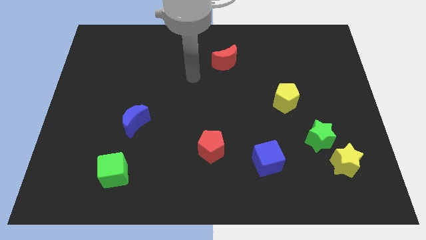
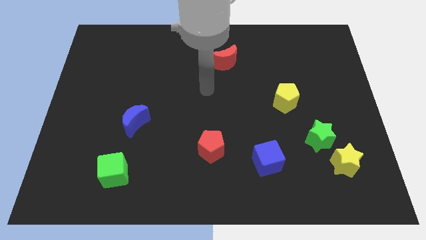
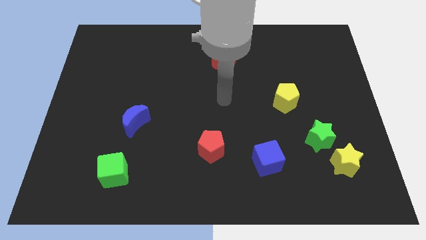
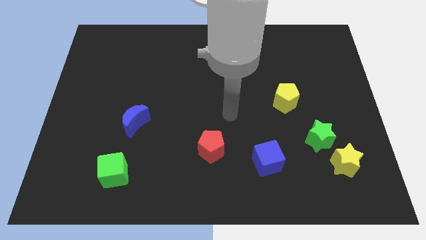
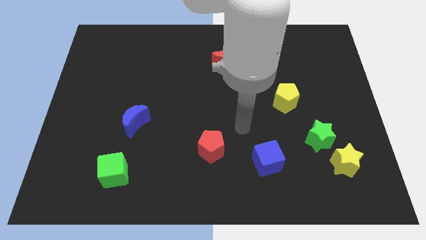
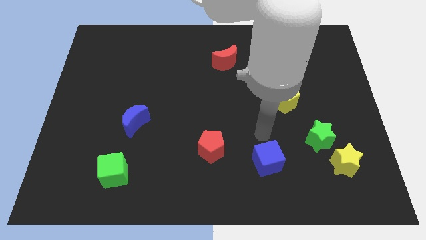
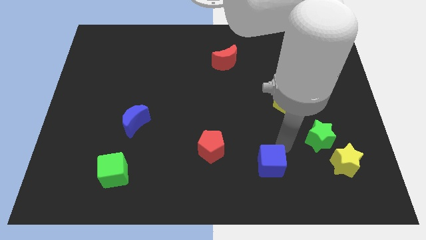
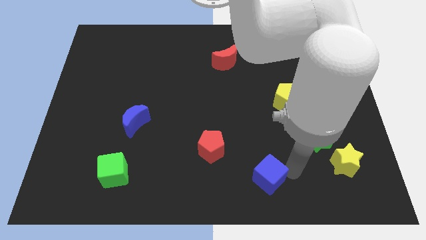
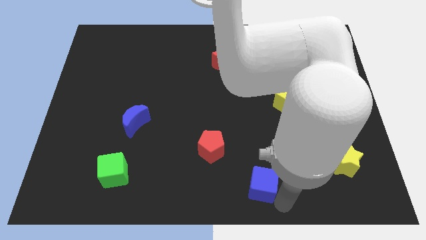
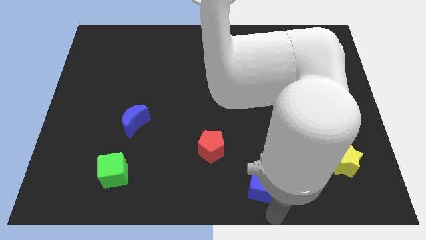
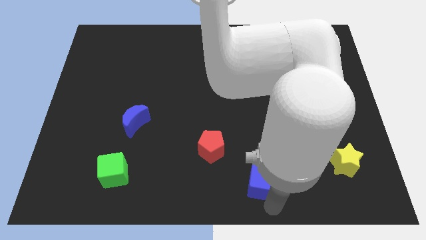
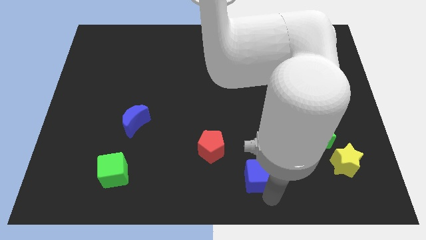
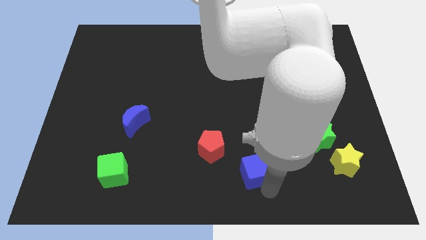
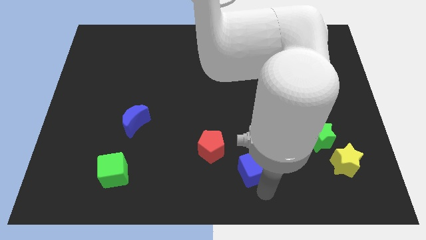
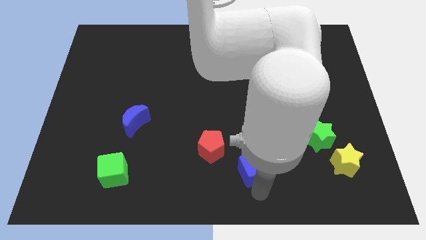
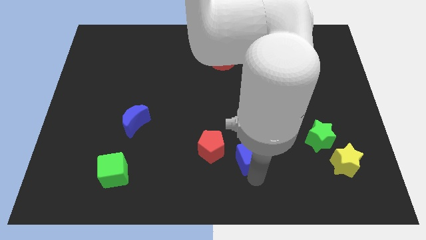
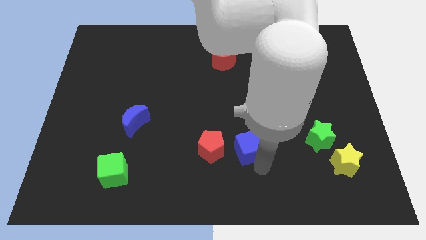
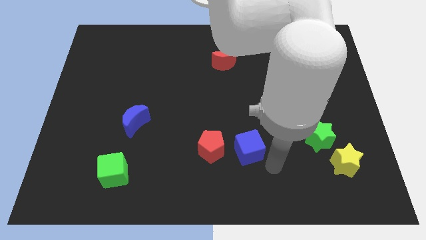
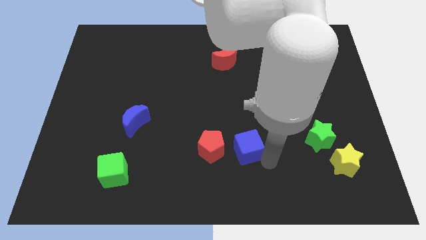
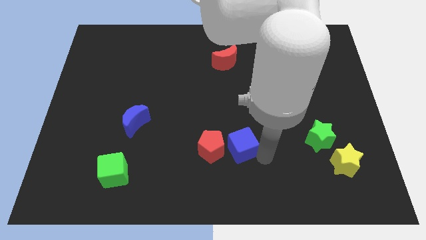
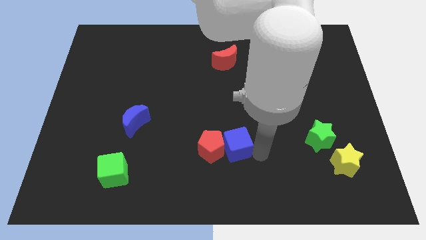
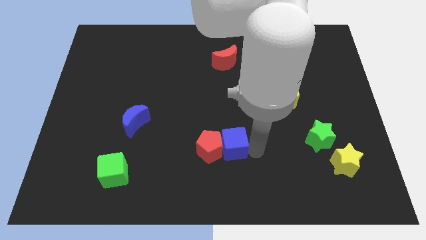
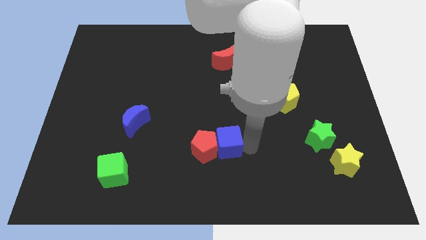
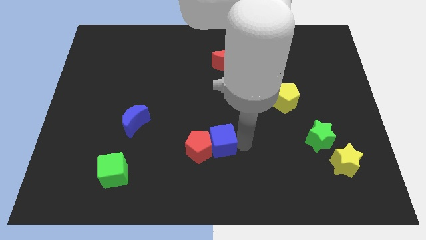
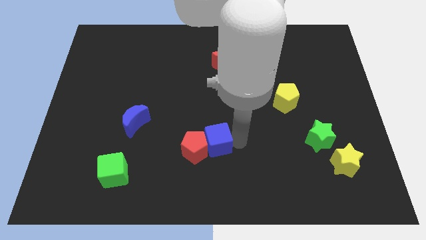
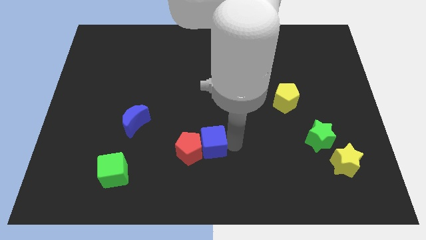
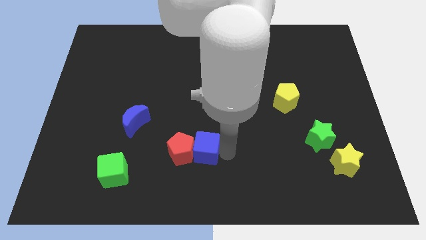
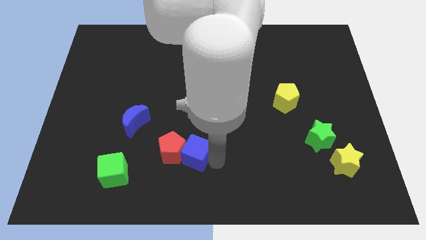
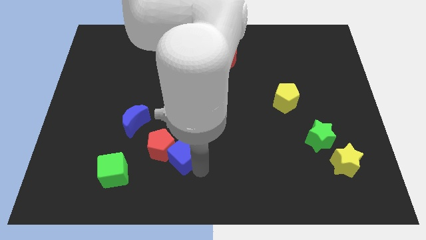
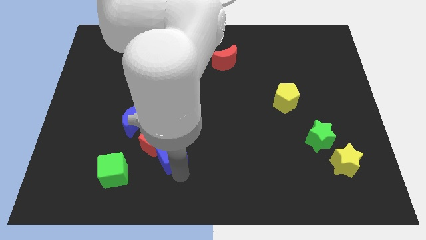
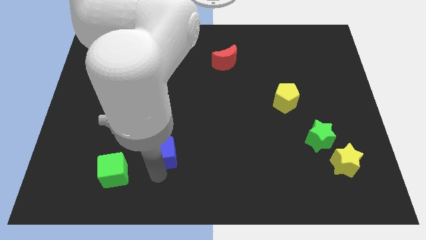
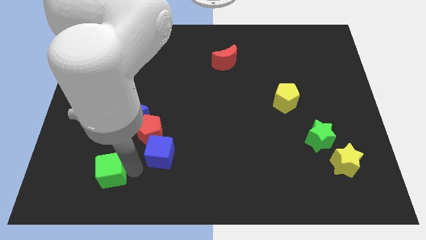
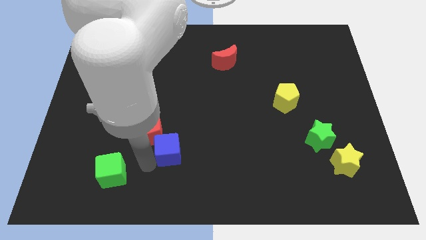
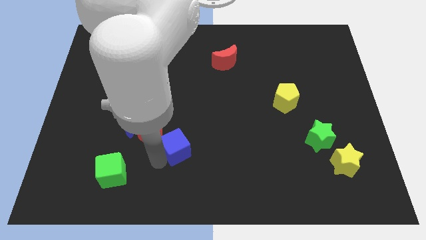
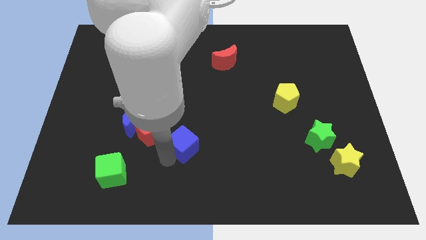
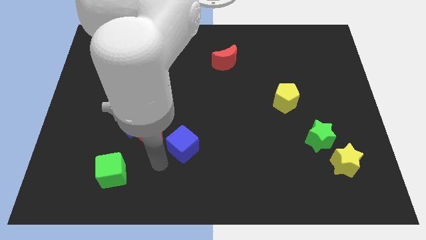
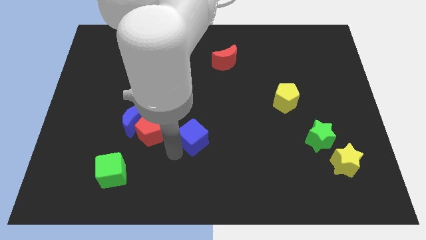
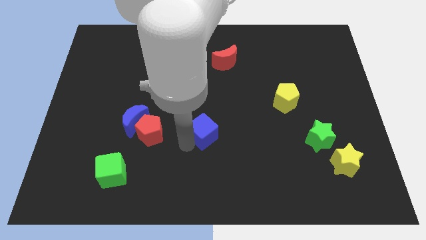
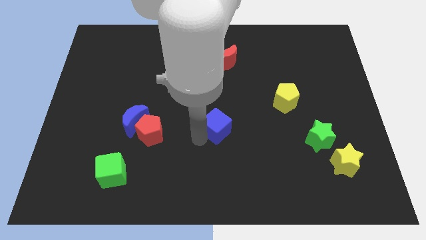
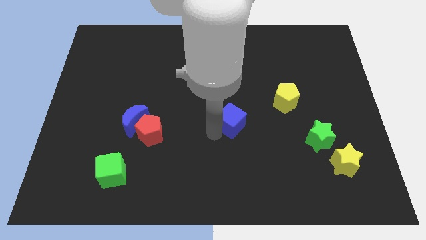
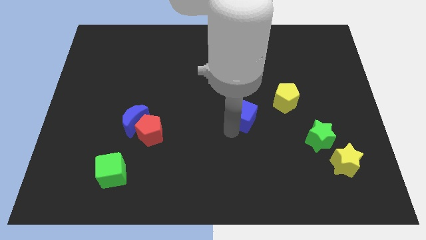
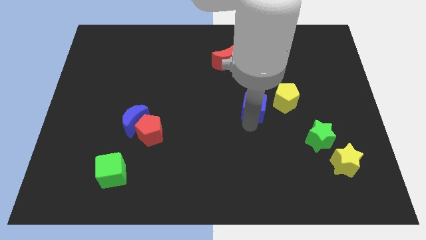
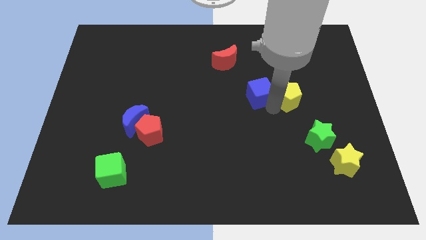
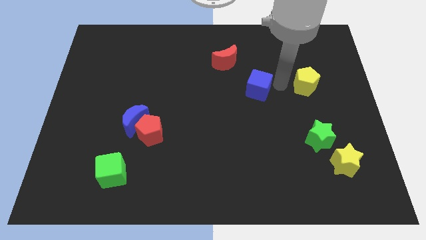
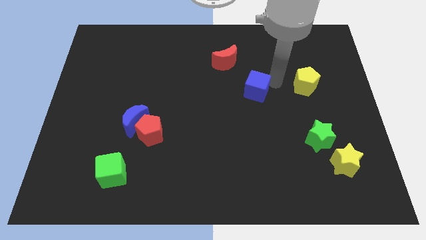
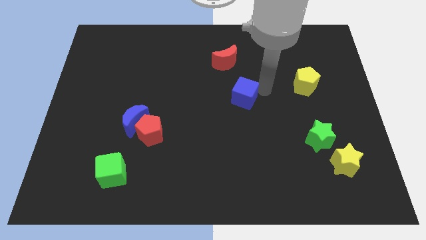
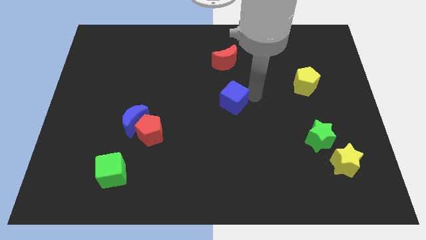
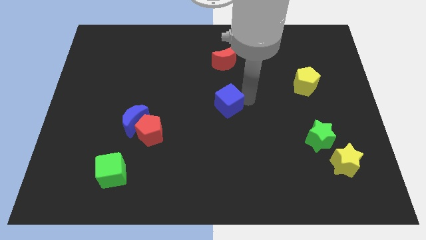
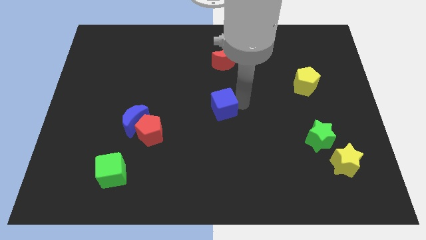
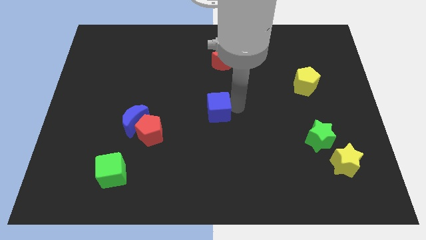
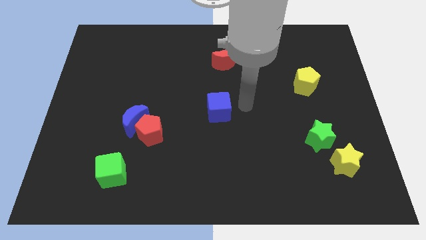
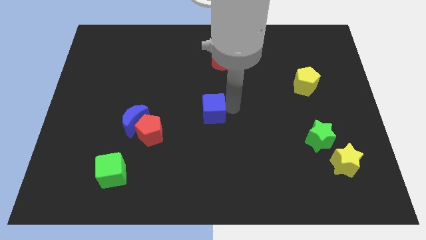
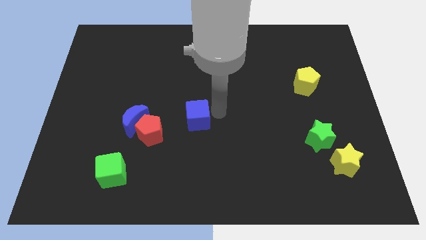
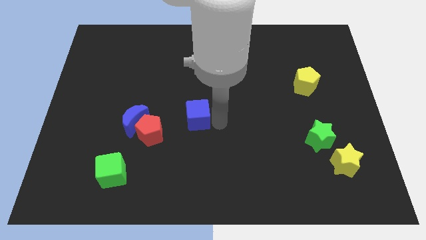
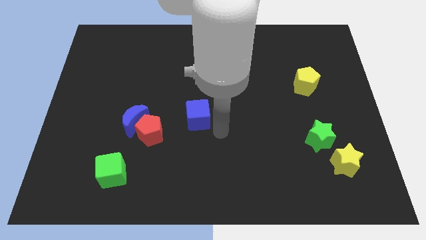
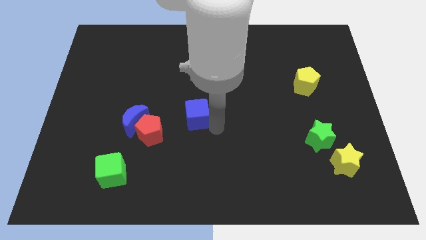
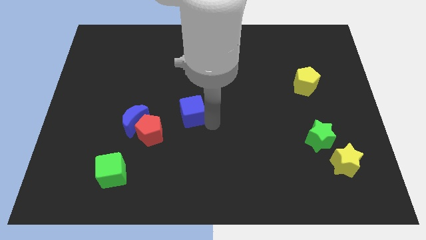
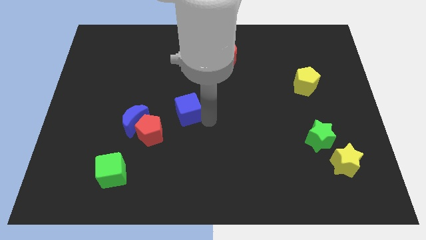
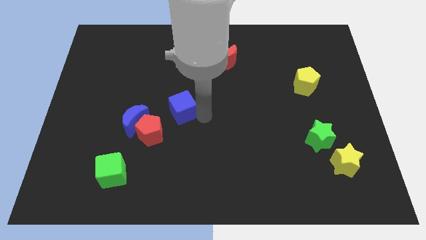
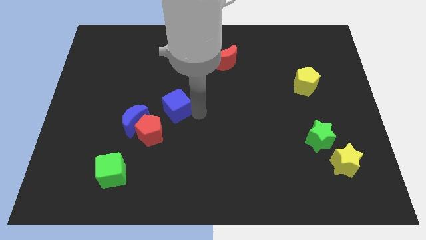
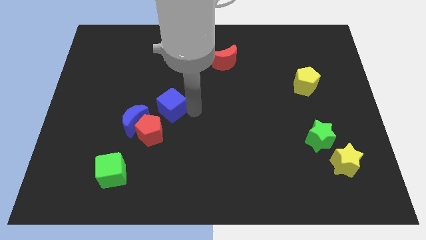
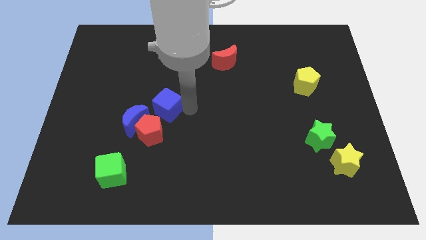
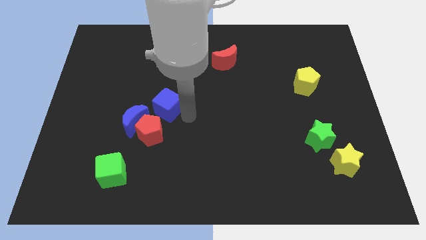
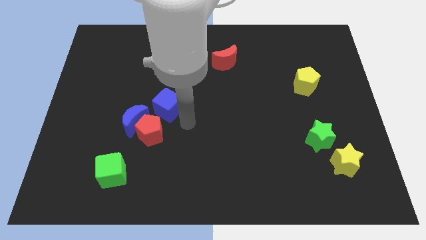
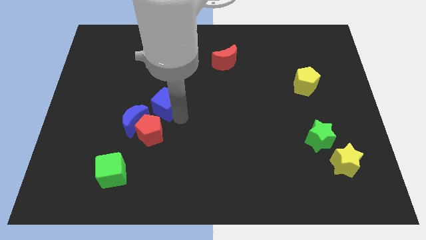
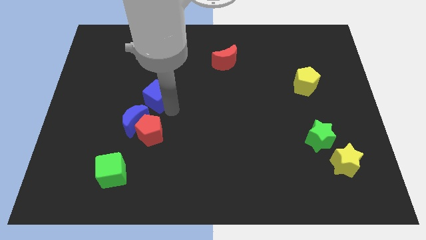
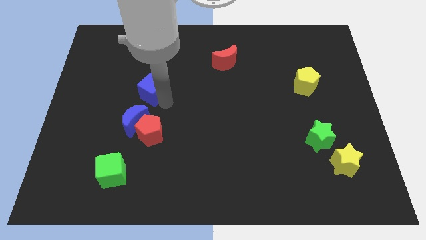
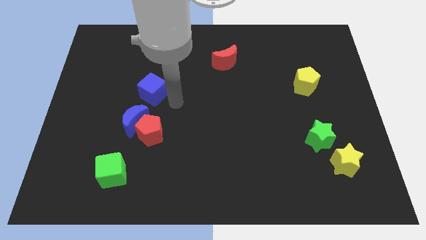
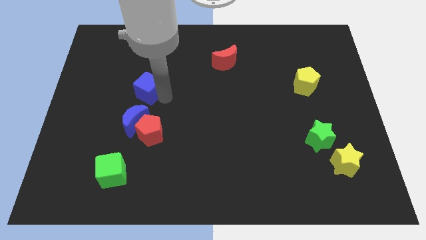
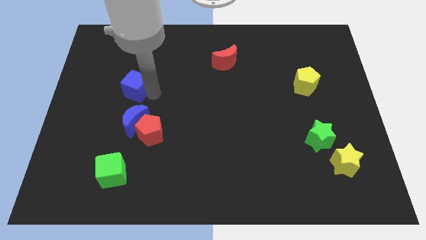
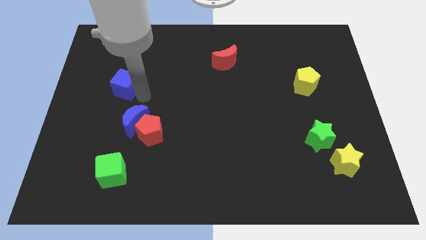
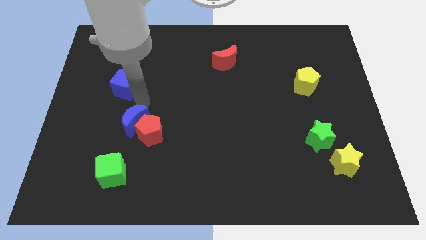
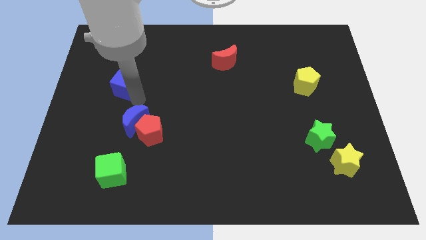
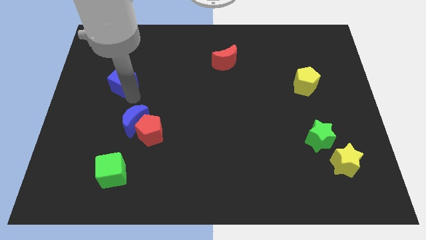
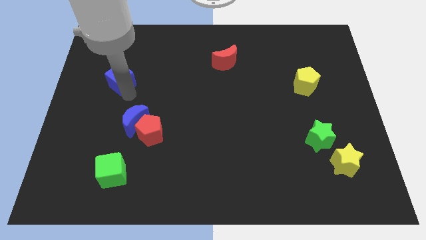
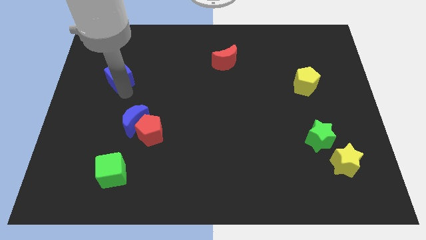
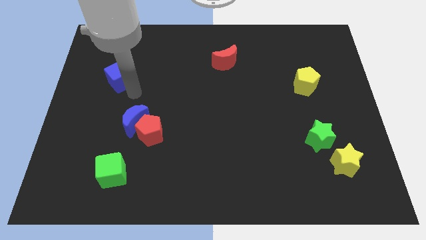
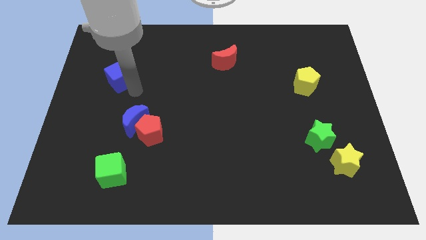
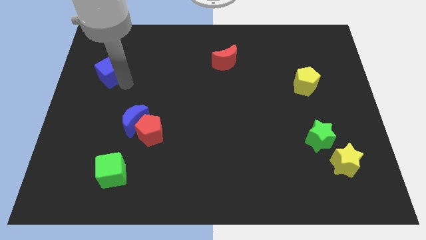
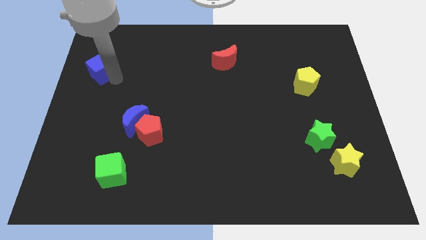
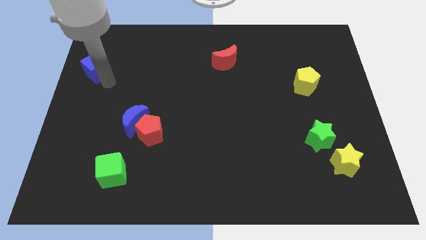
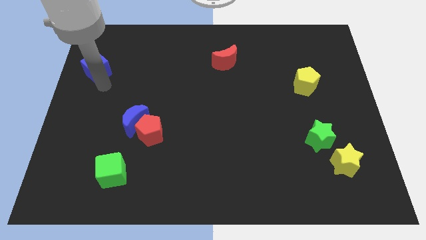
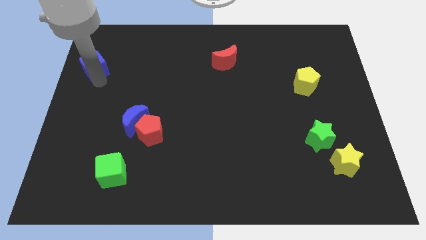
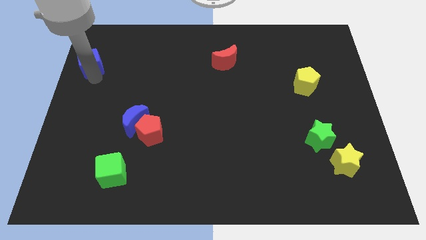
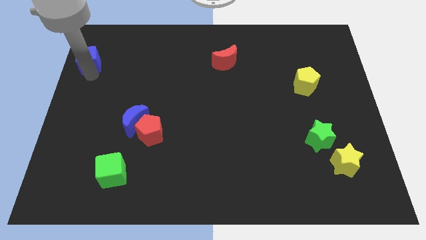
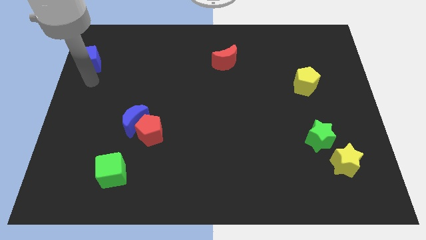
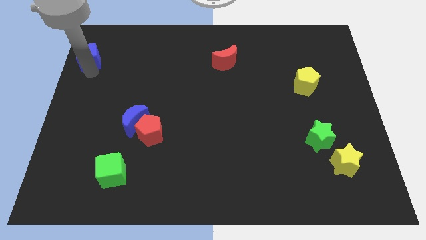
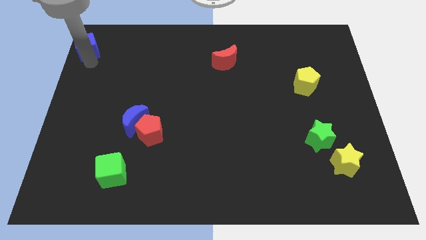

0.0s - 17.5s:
slide the blue cube to the top left corner
